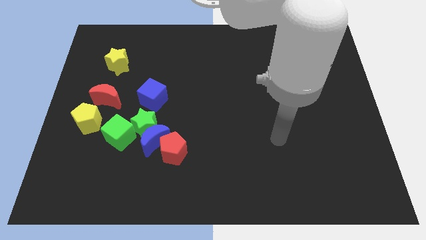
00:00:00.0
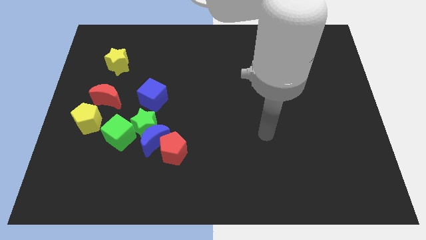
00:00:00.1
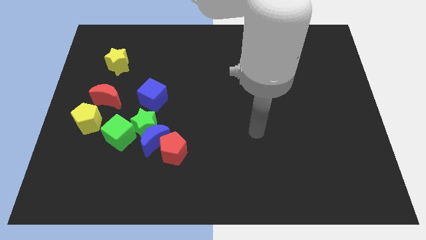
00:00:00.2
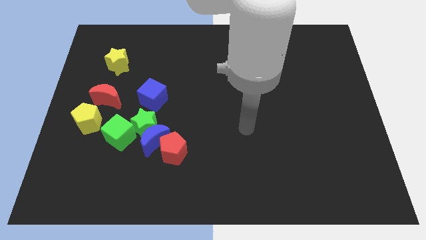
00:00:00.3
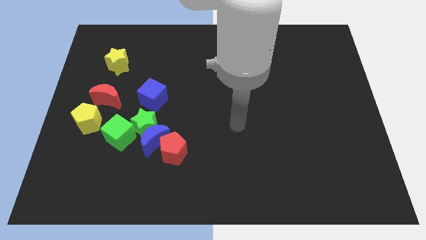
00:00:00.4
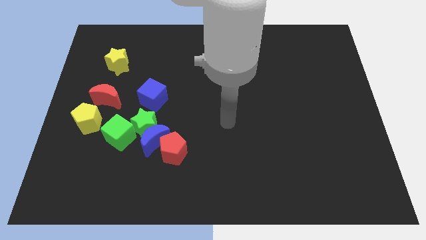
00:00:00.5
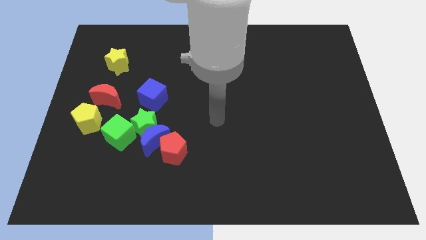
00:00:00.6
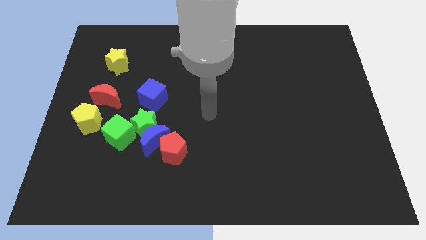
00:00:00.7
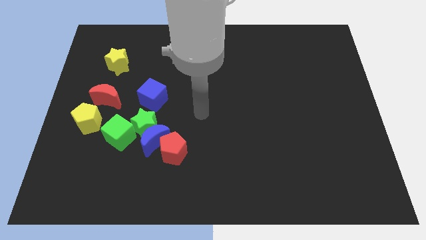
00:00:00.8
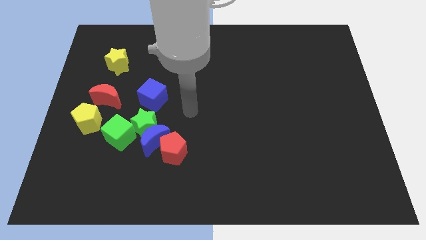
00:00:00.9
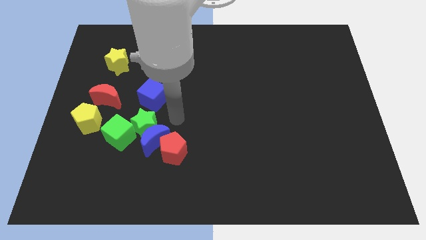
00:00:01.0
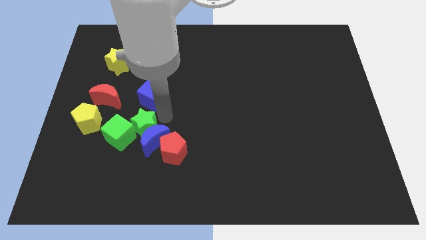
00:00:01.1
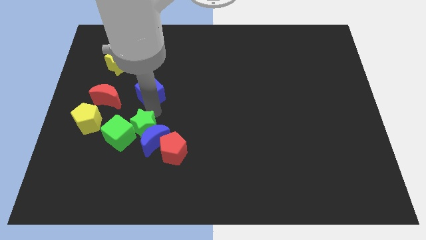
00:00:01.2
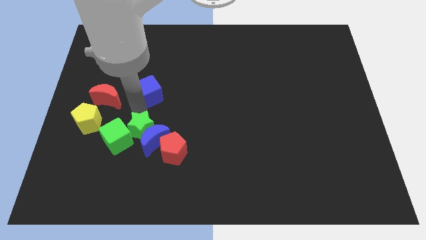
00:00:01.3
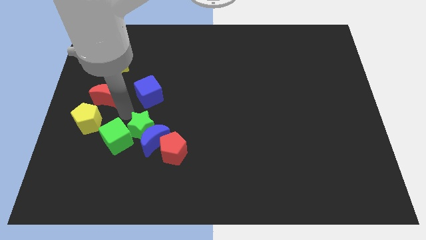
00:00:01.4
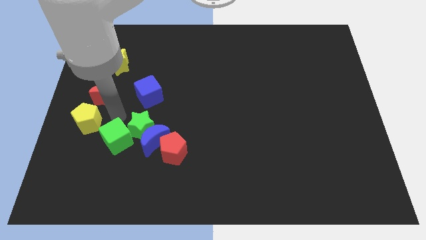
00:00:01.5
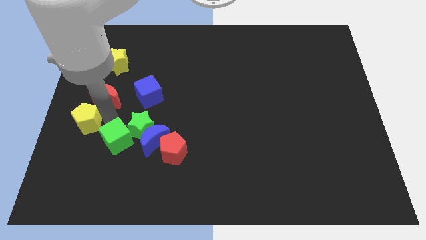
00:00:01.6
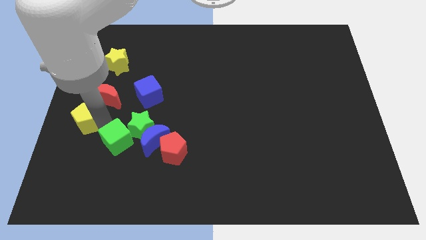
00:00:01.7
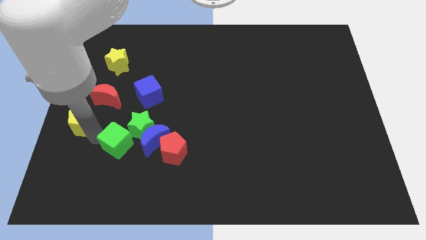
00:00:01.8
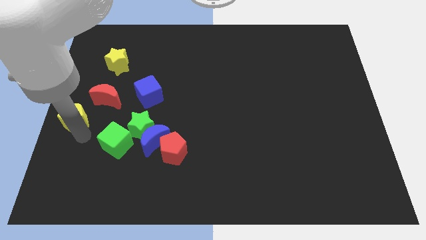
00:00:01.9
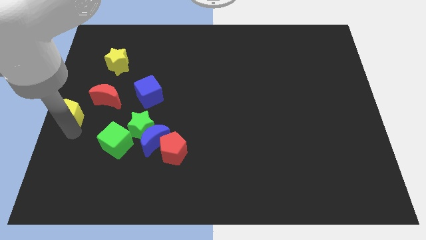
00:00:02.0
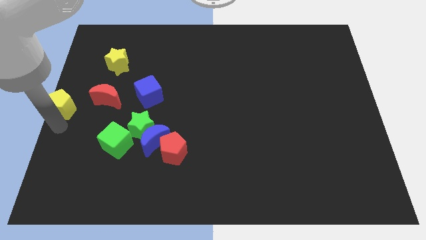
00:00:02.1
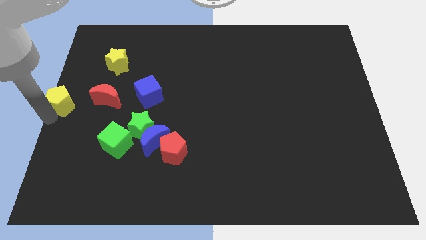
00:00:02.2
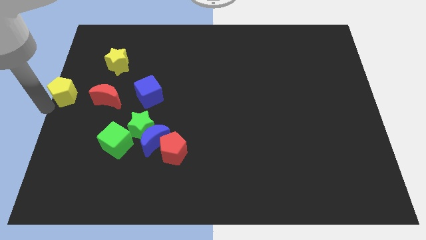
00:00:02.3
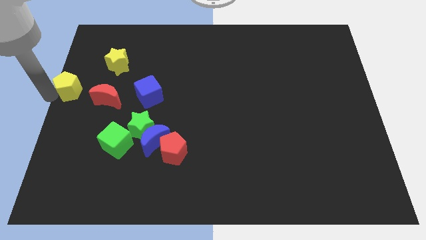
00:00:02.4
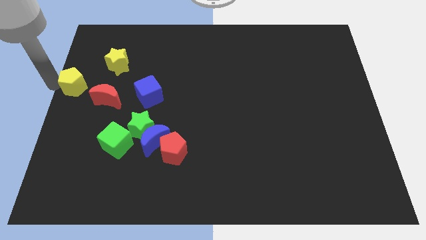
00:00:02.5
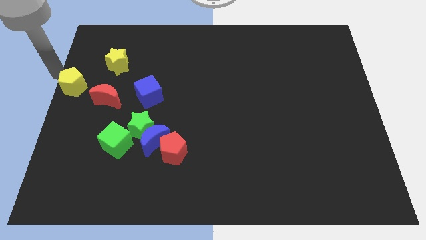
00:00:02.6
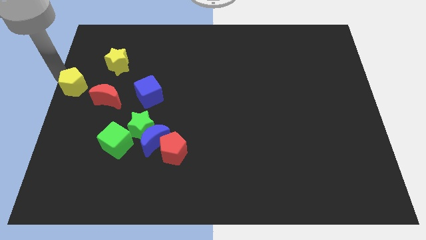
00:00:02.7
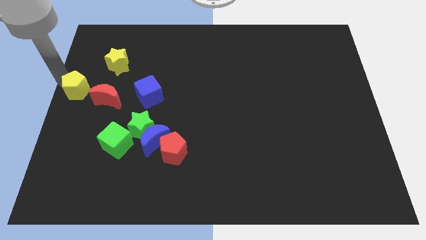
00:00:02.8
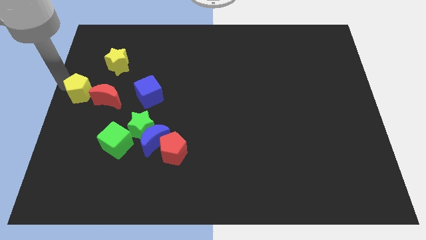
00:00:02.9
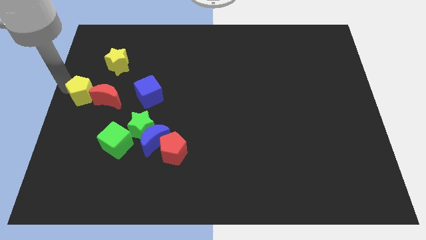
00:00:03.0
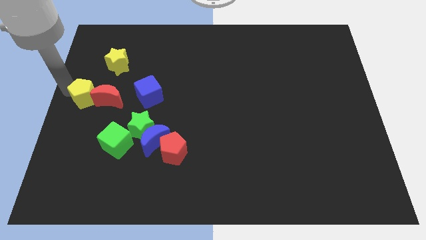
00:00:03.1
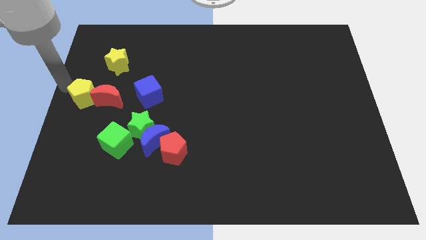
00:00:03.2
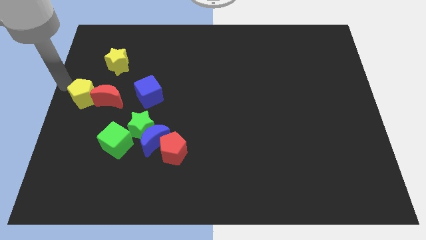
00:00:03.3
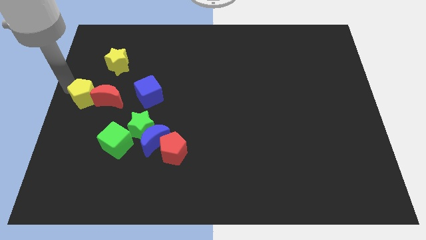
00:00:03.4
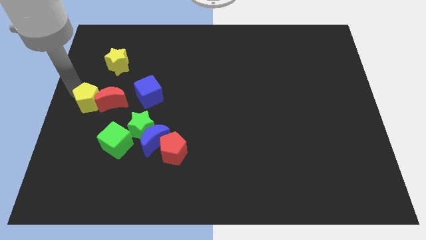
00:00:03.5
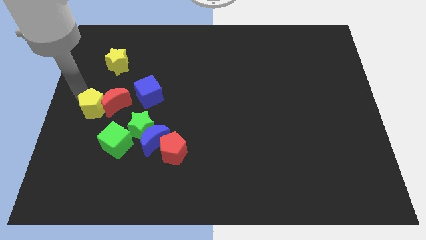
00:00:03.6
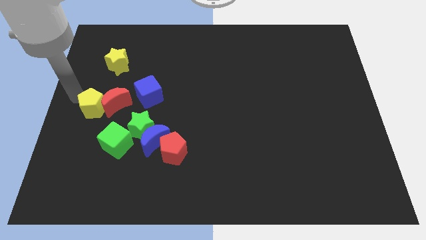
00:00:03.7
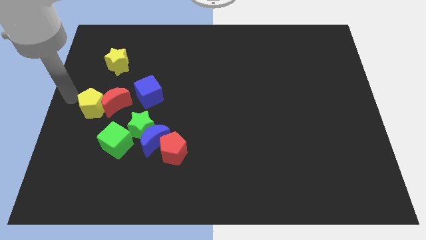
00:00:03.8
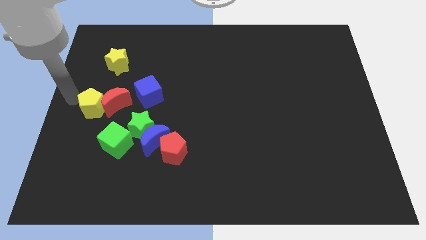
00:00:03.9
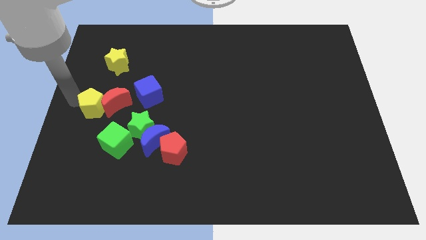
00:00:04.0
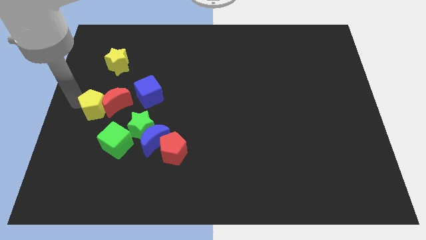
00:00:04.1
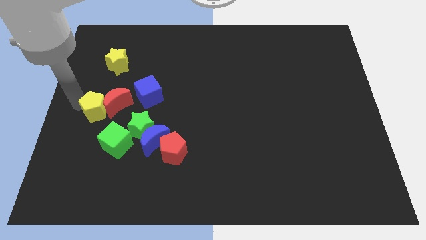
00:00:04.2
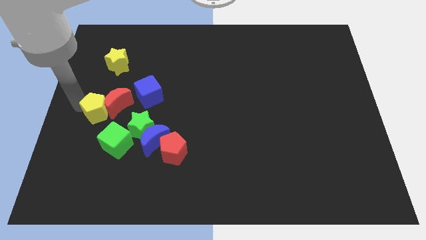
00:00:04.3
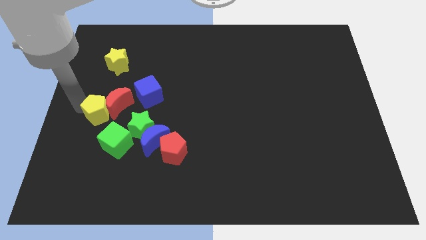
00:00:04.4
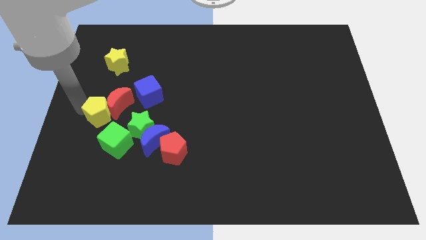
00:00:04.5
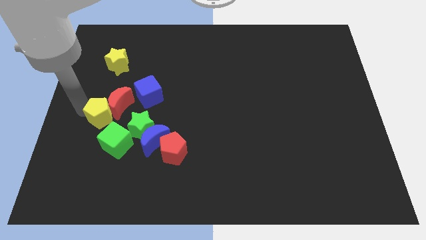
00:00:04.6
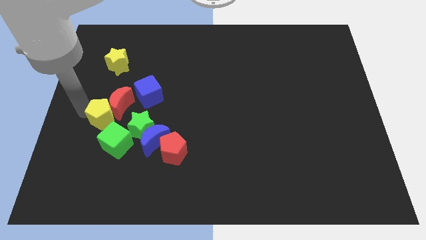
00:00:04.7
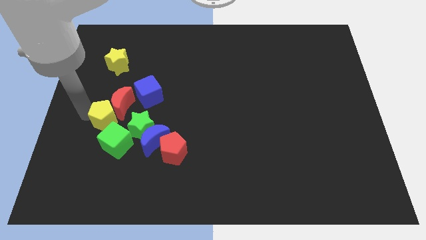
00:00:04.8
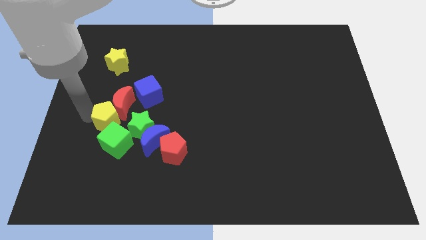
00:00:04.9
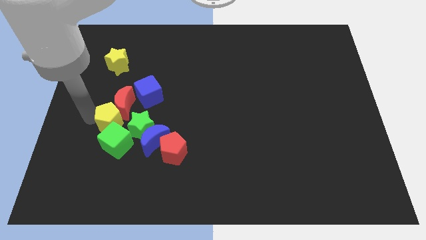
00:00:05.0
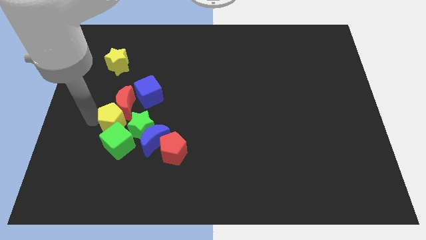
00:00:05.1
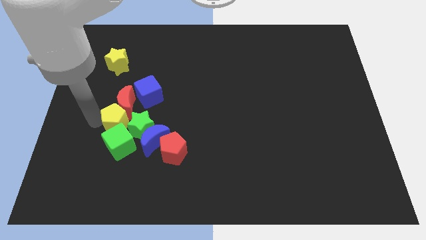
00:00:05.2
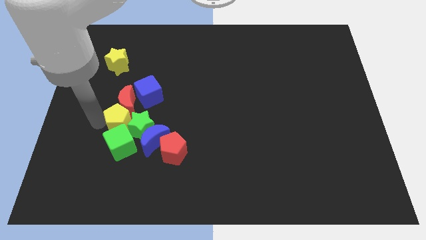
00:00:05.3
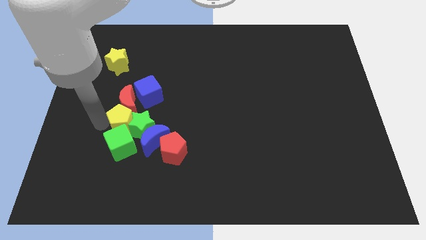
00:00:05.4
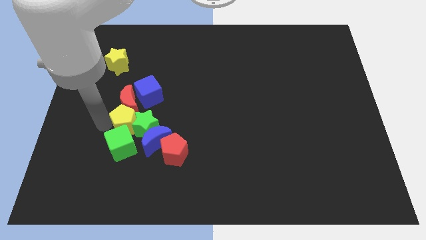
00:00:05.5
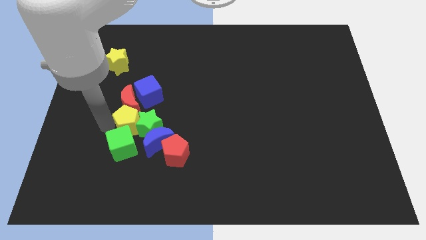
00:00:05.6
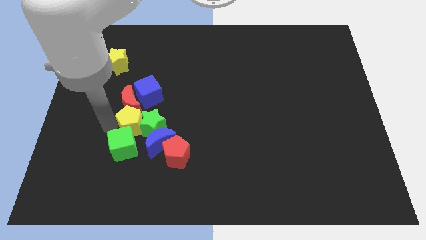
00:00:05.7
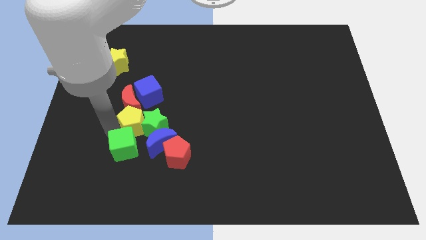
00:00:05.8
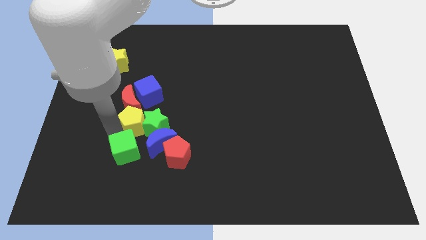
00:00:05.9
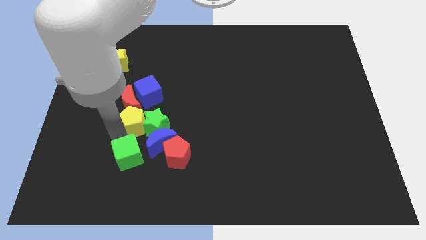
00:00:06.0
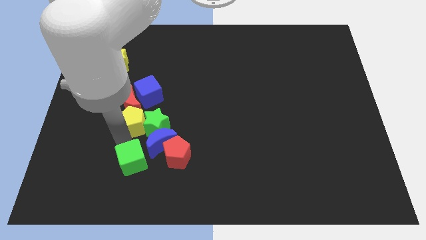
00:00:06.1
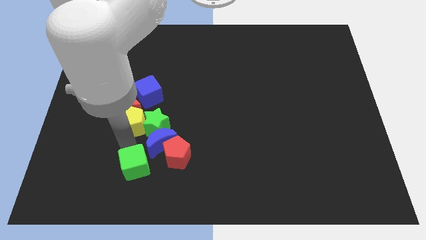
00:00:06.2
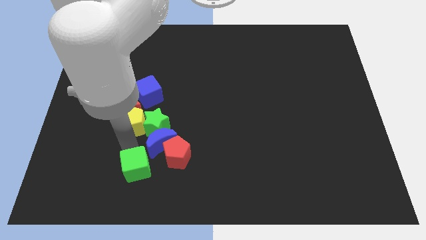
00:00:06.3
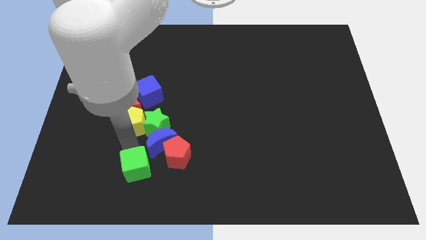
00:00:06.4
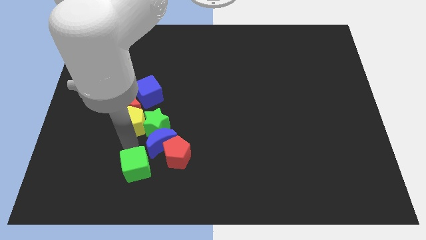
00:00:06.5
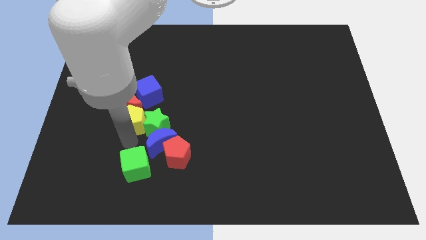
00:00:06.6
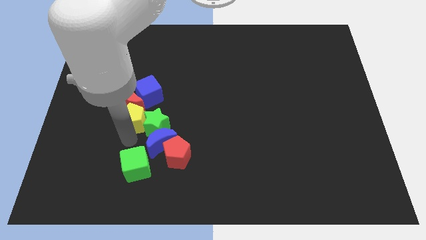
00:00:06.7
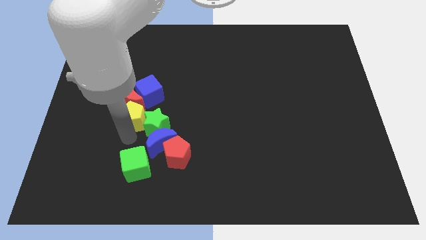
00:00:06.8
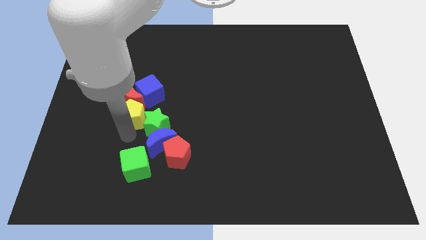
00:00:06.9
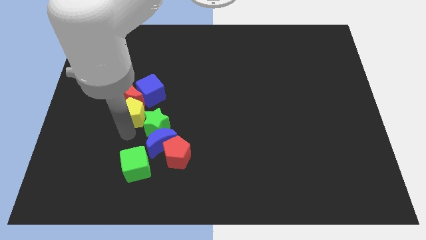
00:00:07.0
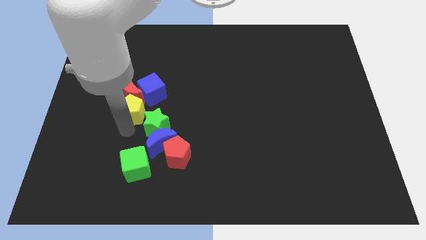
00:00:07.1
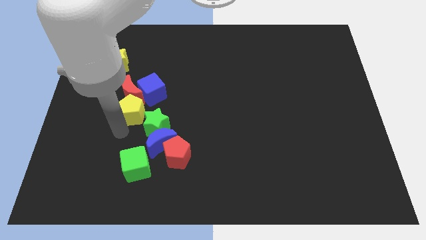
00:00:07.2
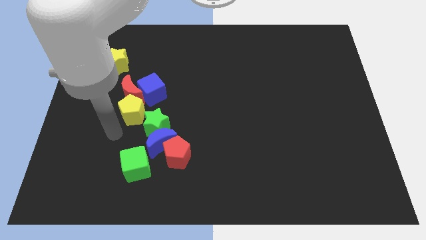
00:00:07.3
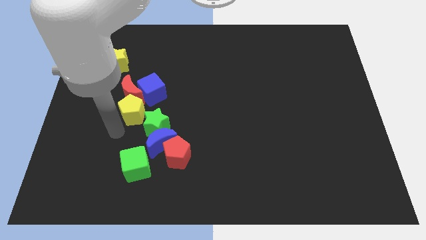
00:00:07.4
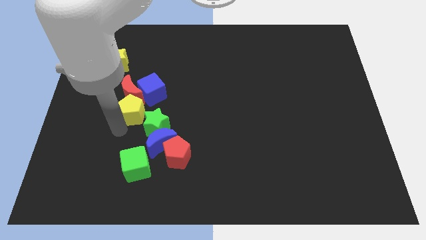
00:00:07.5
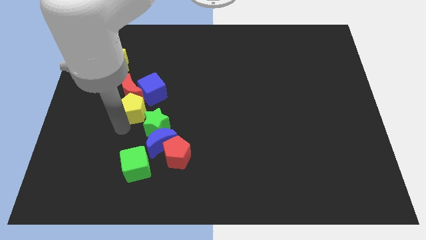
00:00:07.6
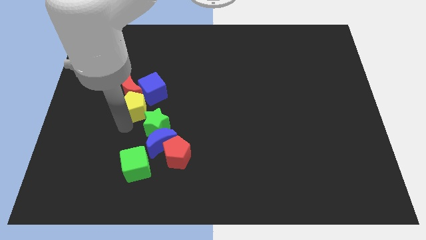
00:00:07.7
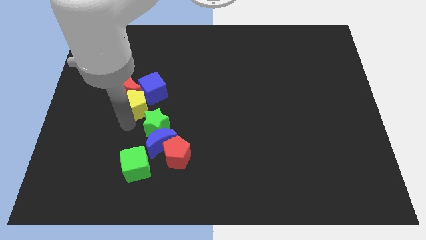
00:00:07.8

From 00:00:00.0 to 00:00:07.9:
move the yellow pentagon to the blue cube
